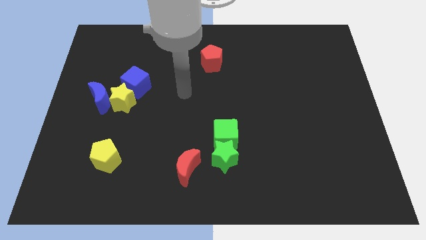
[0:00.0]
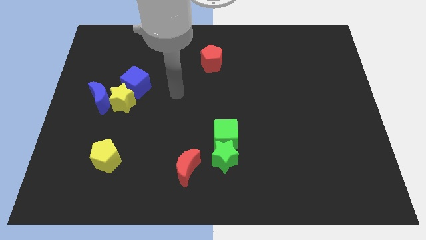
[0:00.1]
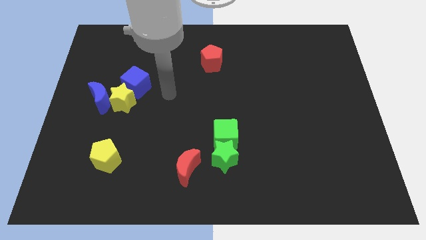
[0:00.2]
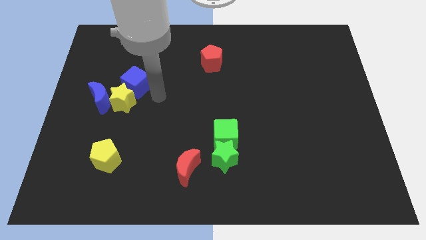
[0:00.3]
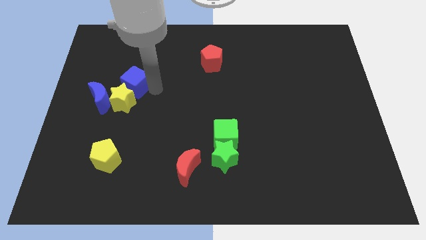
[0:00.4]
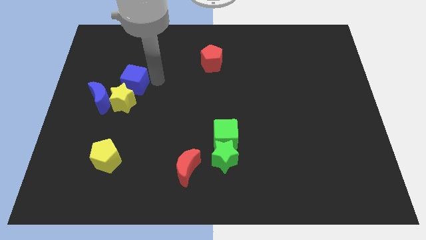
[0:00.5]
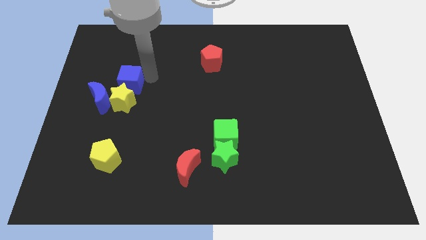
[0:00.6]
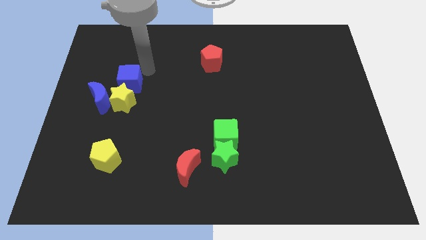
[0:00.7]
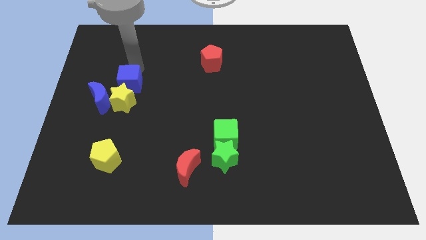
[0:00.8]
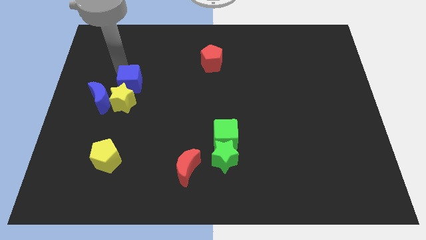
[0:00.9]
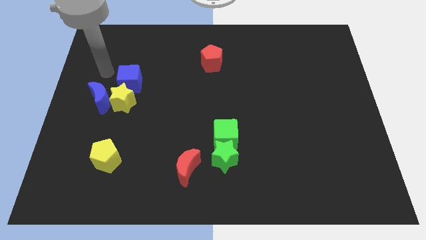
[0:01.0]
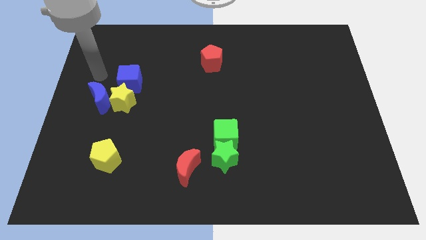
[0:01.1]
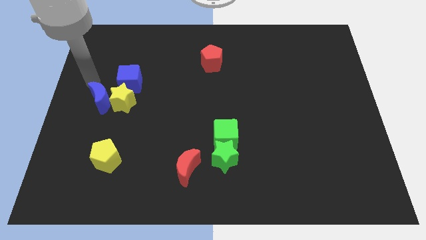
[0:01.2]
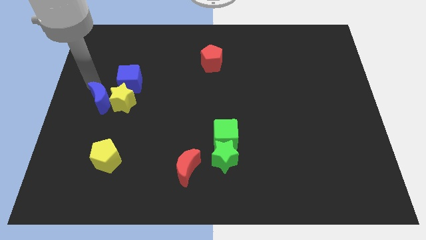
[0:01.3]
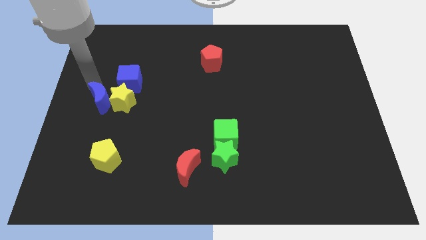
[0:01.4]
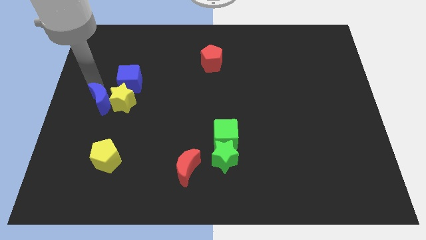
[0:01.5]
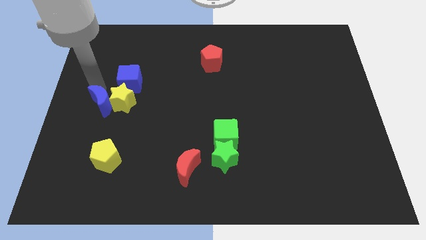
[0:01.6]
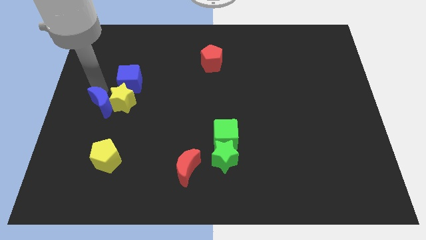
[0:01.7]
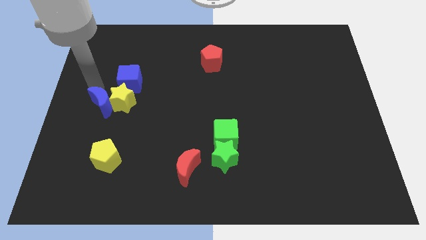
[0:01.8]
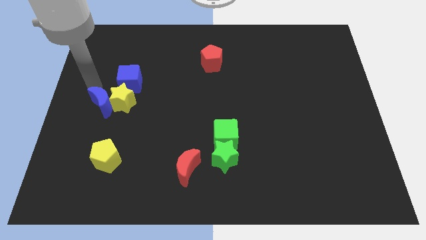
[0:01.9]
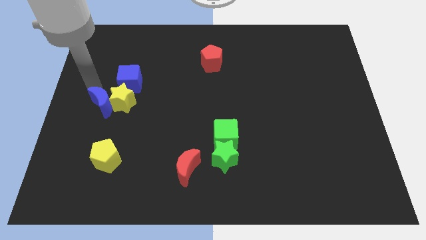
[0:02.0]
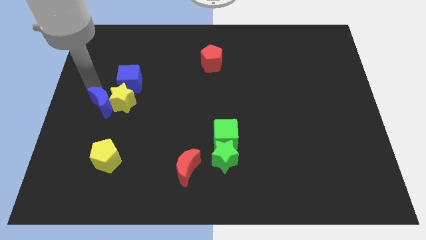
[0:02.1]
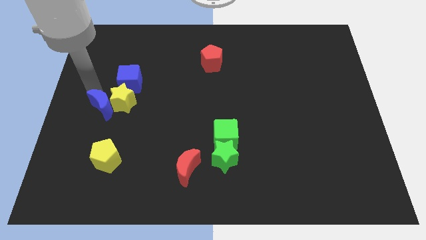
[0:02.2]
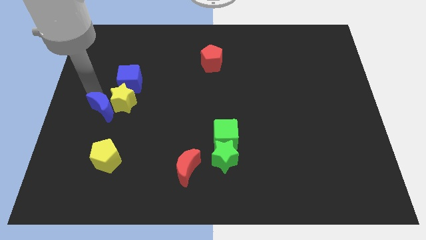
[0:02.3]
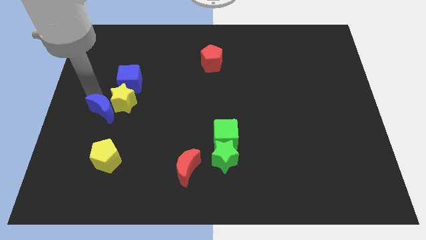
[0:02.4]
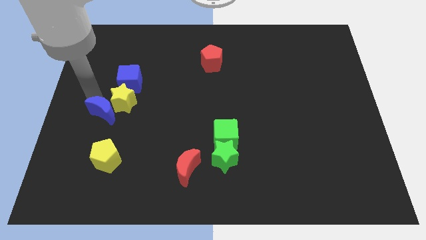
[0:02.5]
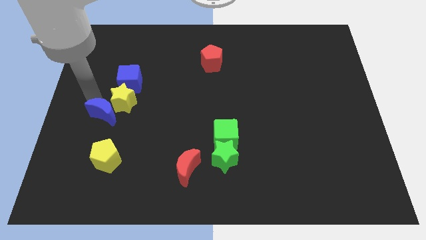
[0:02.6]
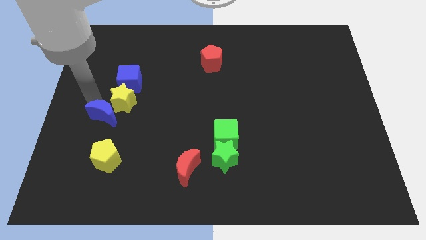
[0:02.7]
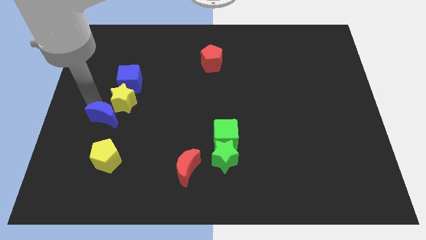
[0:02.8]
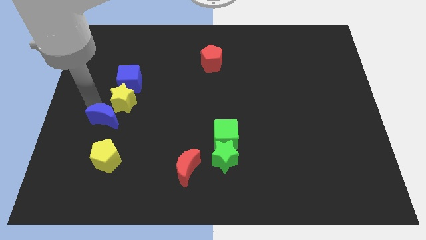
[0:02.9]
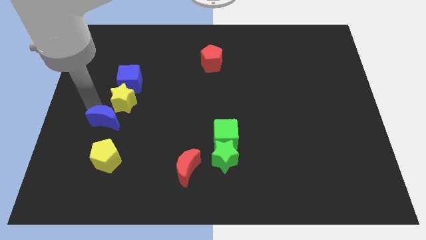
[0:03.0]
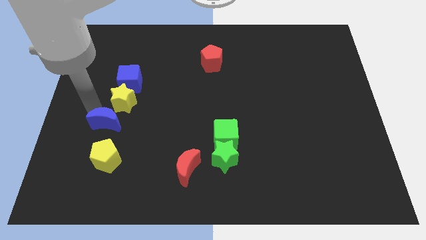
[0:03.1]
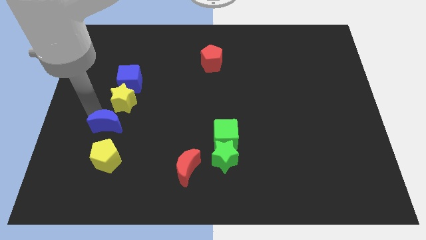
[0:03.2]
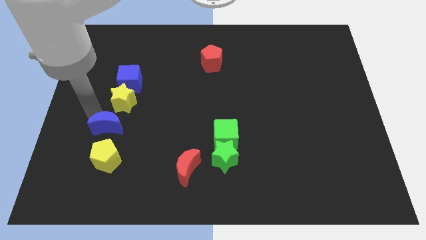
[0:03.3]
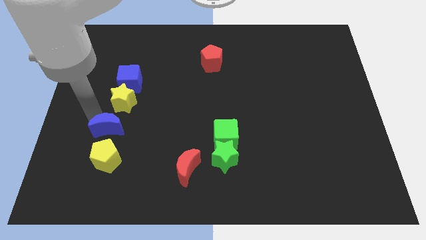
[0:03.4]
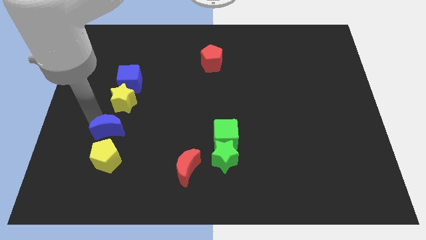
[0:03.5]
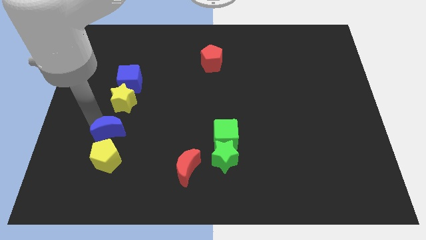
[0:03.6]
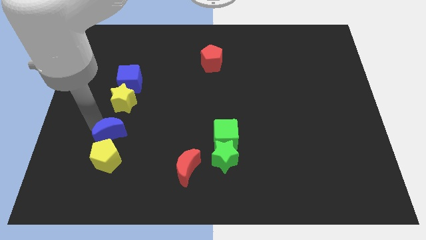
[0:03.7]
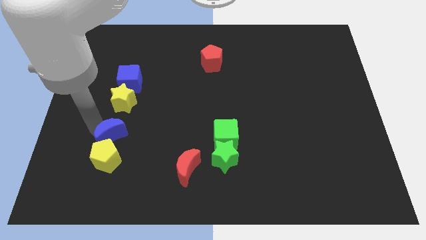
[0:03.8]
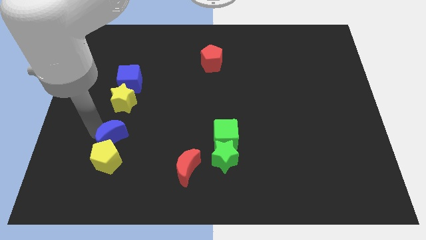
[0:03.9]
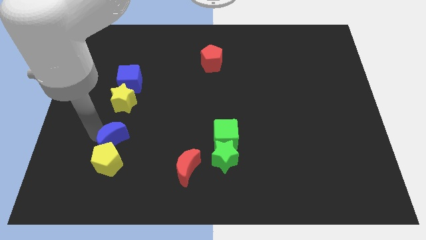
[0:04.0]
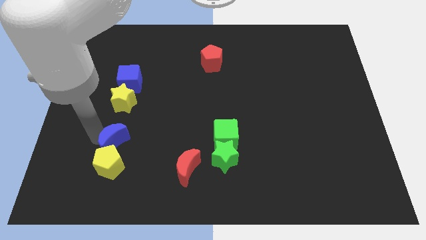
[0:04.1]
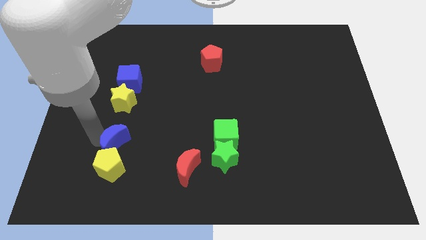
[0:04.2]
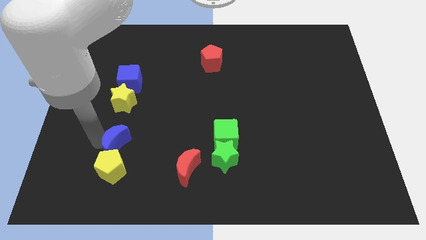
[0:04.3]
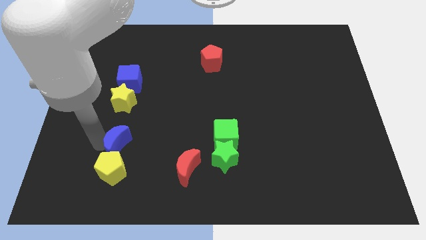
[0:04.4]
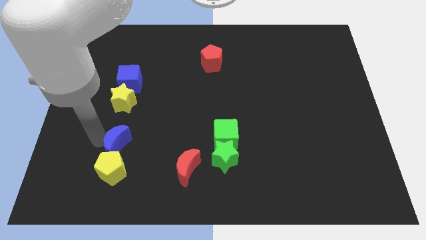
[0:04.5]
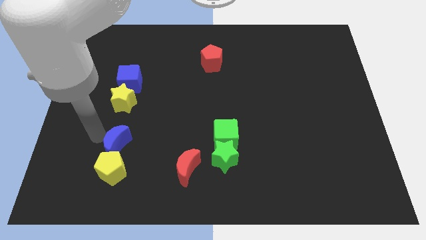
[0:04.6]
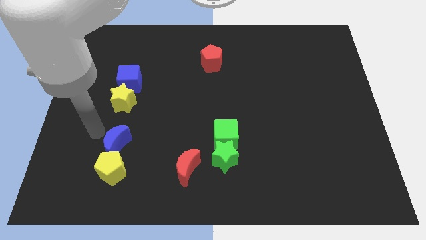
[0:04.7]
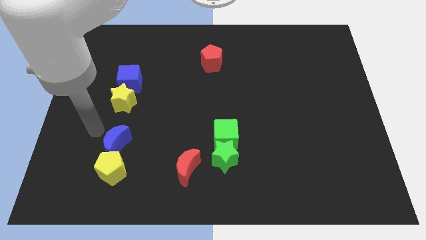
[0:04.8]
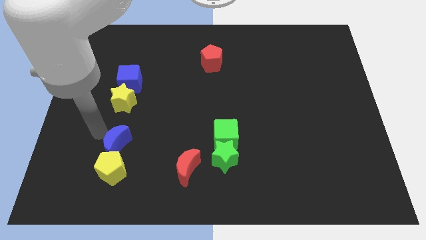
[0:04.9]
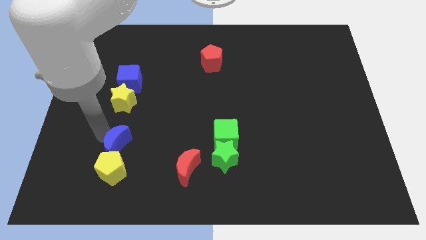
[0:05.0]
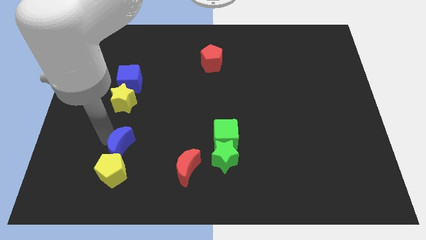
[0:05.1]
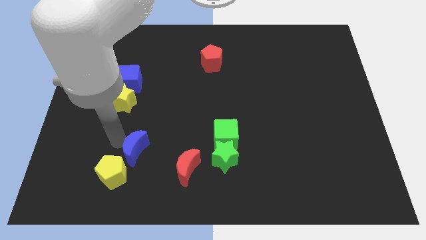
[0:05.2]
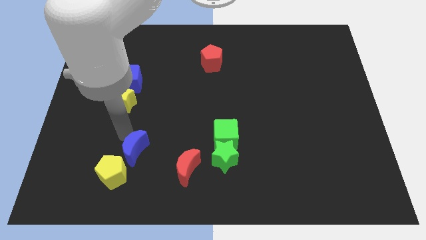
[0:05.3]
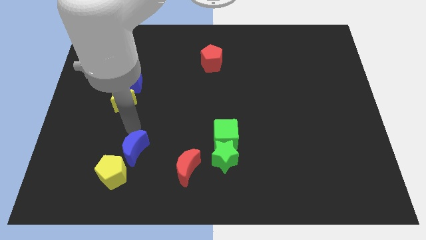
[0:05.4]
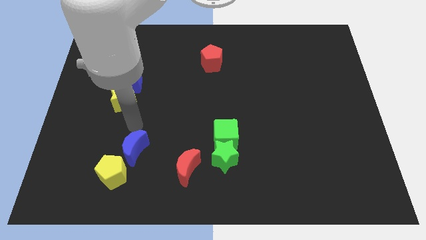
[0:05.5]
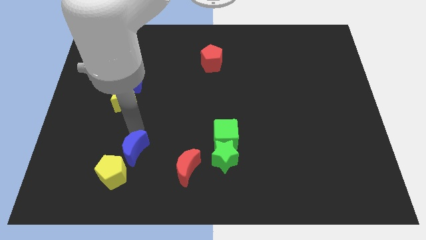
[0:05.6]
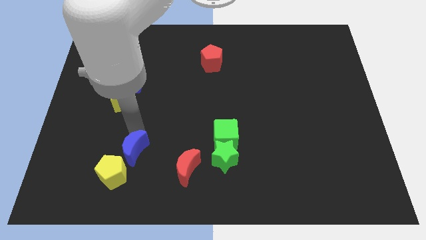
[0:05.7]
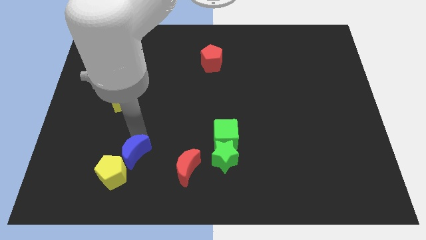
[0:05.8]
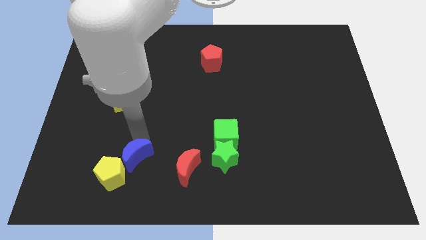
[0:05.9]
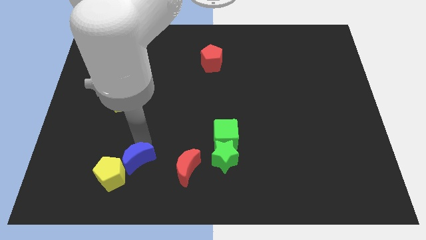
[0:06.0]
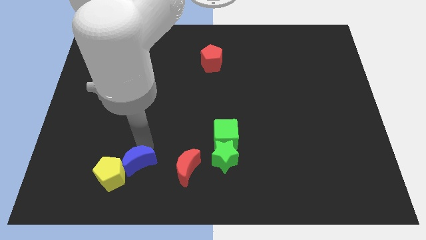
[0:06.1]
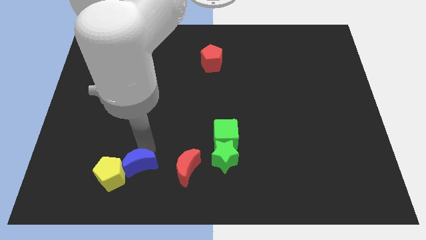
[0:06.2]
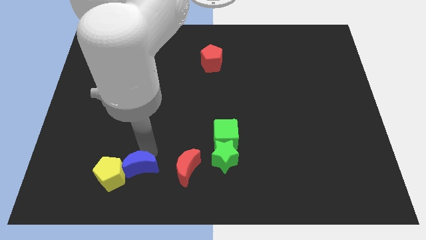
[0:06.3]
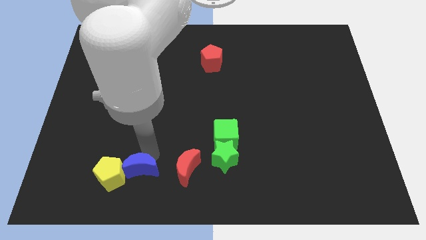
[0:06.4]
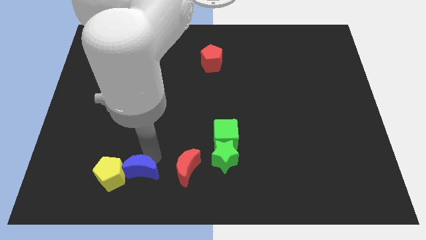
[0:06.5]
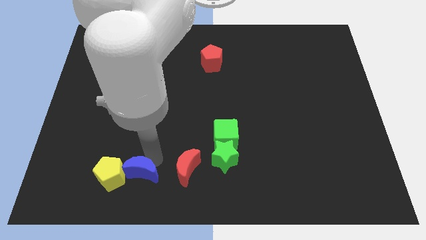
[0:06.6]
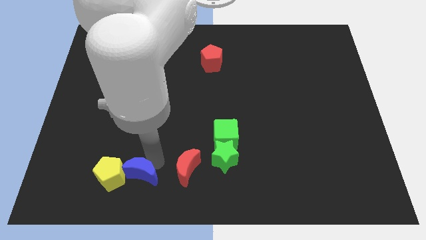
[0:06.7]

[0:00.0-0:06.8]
put the blue moon to the bottom right of the yellow pentagon

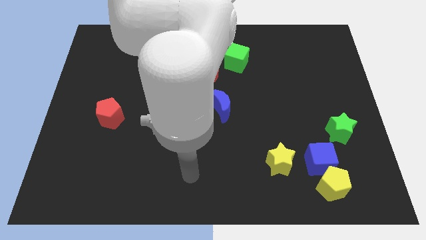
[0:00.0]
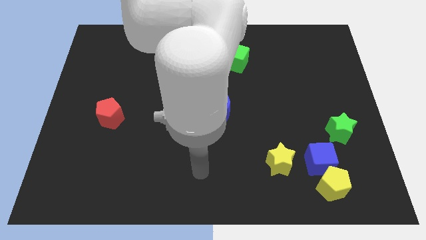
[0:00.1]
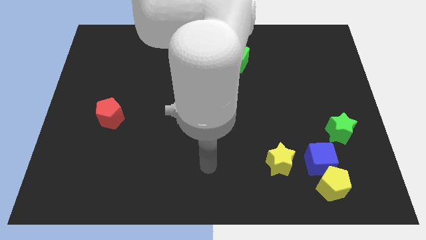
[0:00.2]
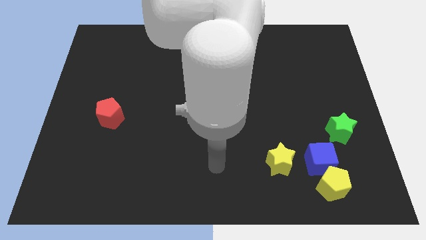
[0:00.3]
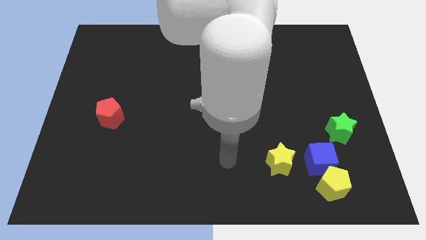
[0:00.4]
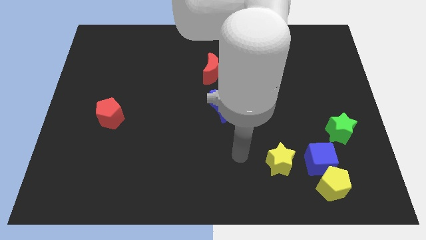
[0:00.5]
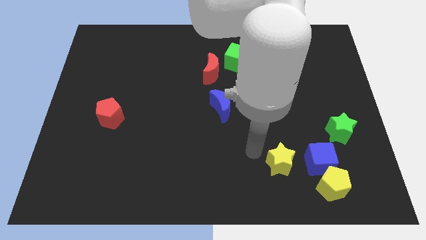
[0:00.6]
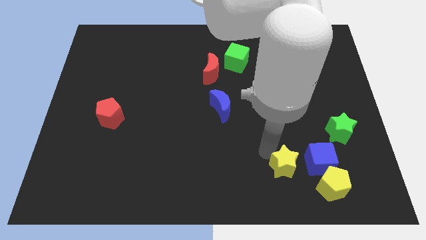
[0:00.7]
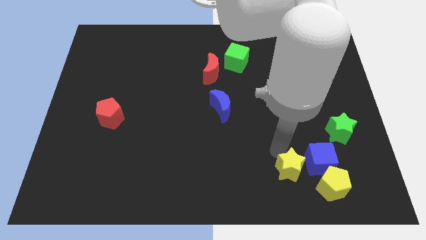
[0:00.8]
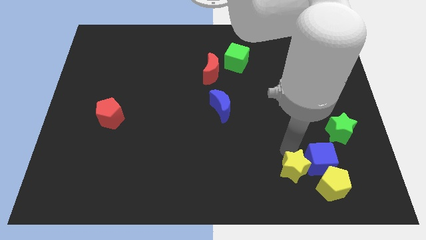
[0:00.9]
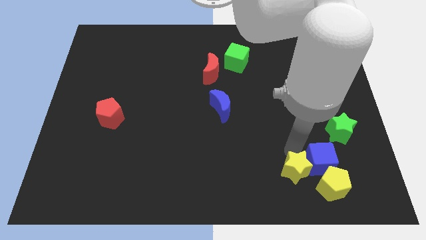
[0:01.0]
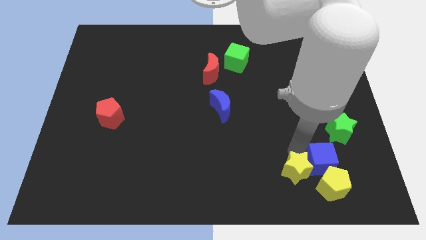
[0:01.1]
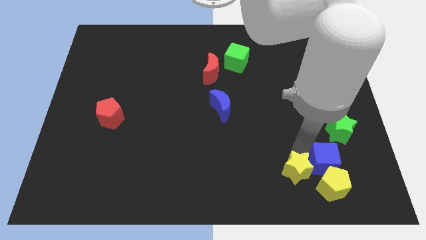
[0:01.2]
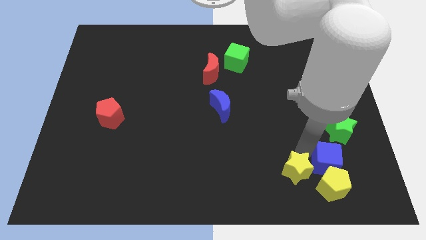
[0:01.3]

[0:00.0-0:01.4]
put the blue cube below the green star
